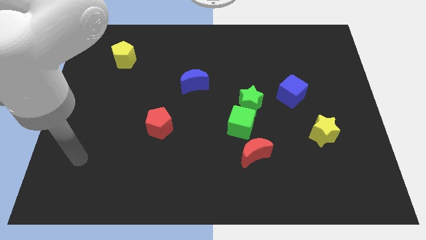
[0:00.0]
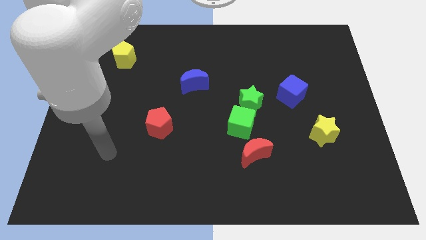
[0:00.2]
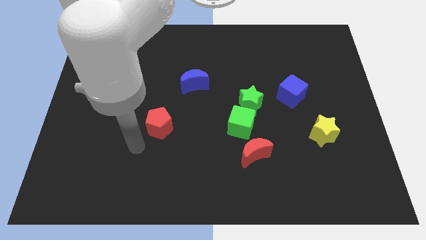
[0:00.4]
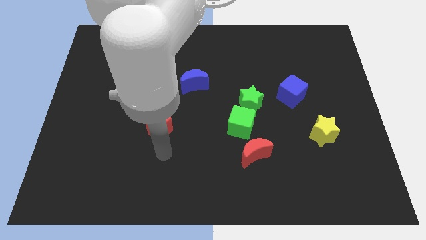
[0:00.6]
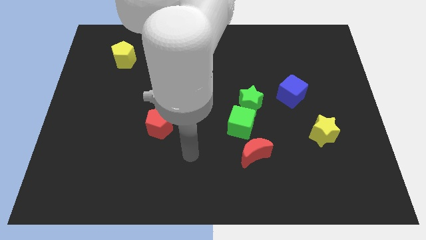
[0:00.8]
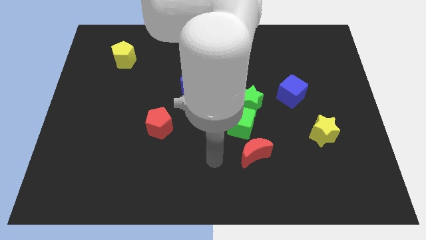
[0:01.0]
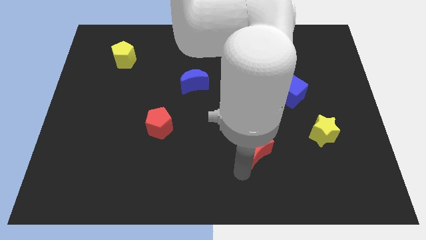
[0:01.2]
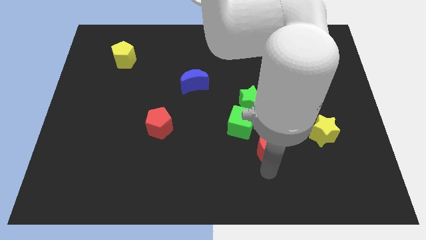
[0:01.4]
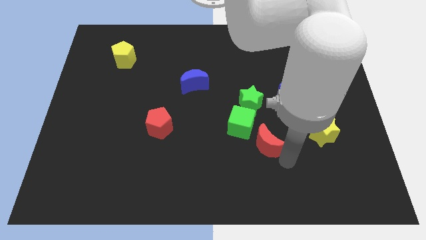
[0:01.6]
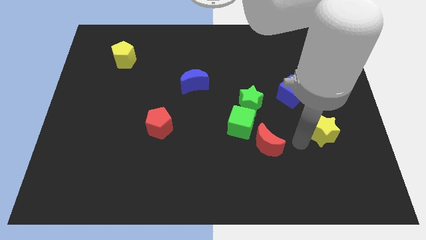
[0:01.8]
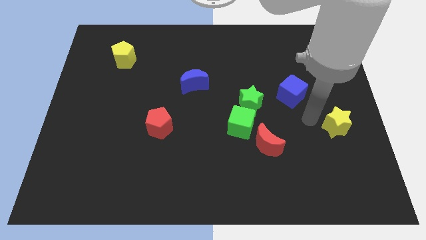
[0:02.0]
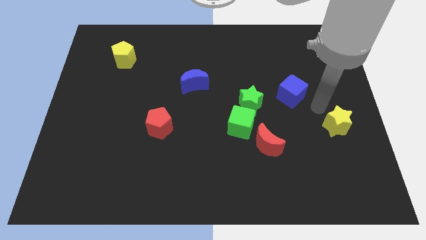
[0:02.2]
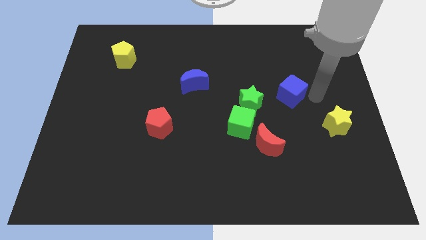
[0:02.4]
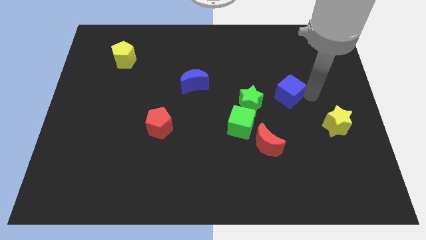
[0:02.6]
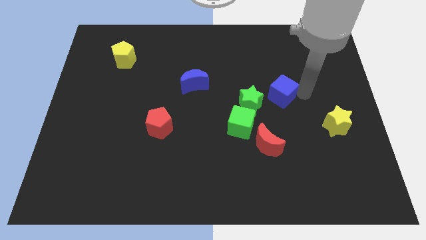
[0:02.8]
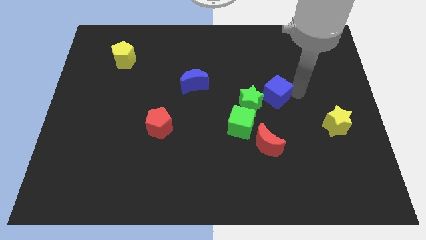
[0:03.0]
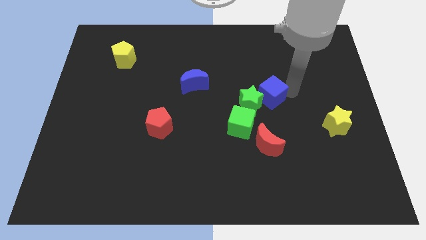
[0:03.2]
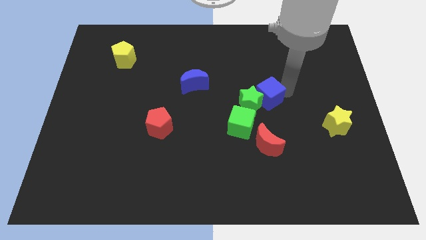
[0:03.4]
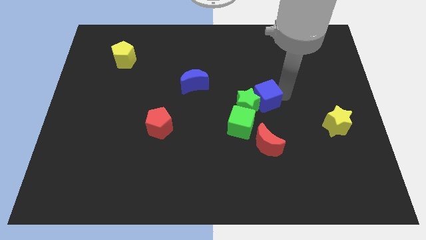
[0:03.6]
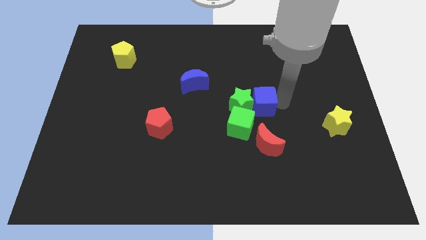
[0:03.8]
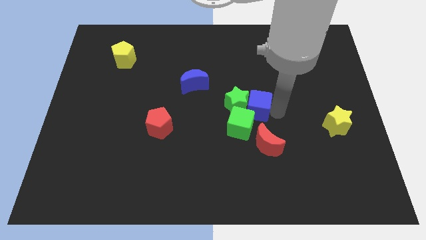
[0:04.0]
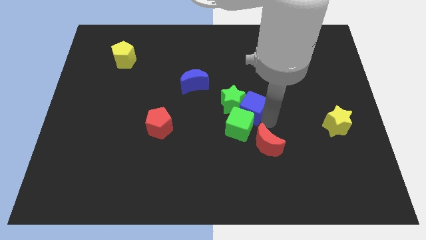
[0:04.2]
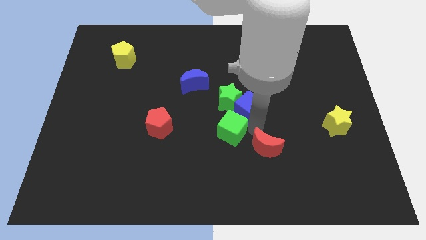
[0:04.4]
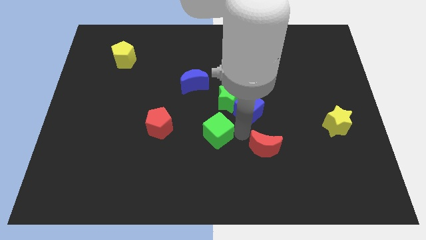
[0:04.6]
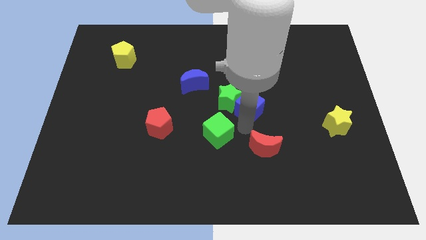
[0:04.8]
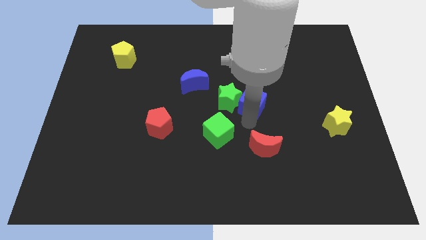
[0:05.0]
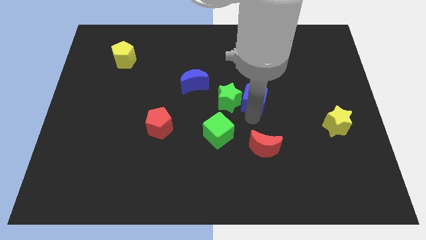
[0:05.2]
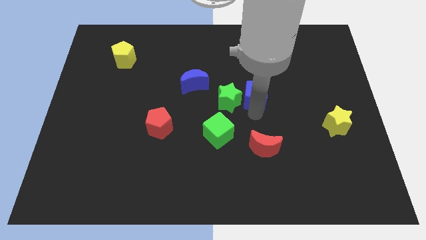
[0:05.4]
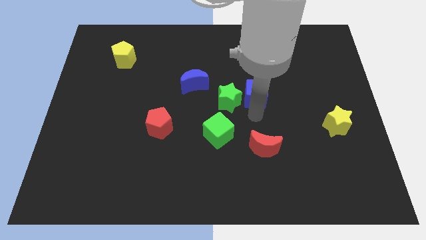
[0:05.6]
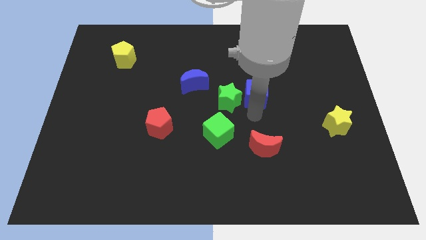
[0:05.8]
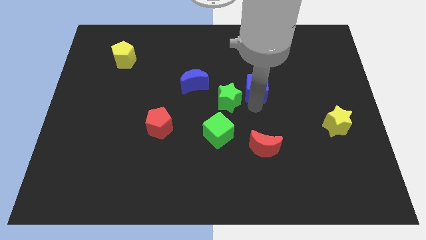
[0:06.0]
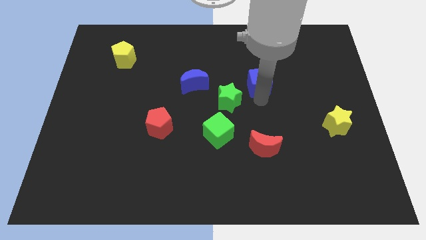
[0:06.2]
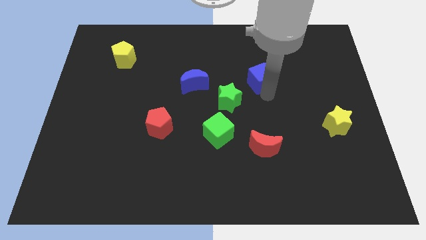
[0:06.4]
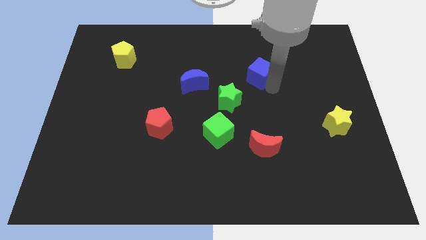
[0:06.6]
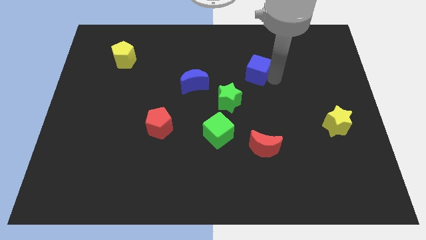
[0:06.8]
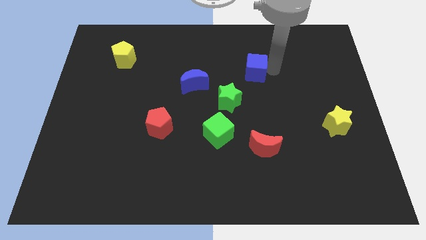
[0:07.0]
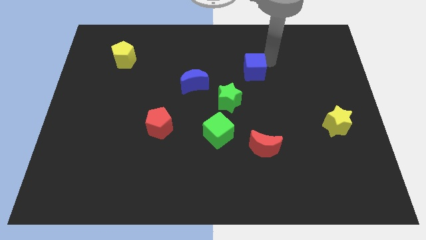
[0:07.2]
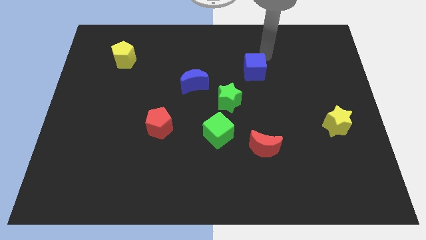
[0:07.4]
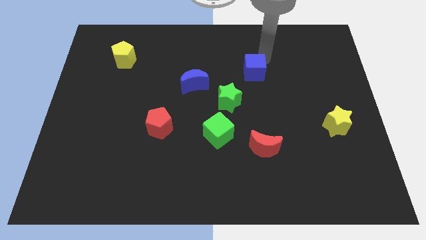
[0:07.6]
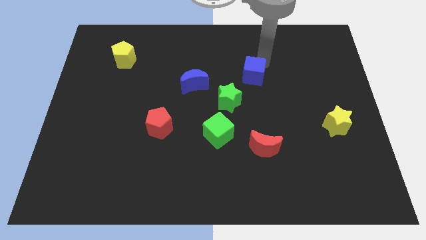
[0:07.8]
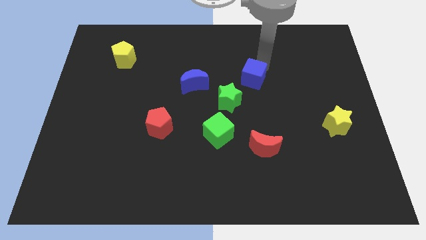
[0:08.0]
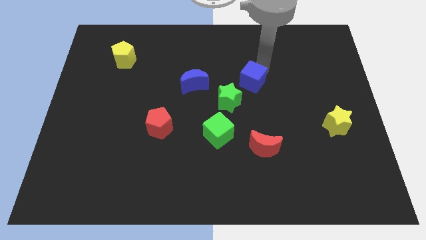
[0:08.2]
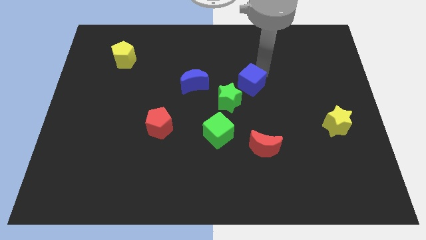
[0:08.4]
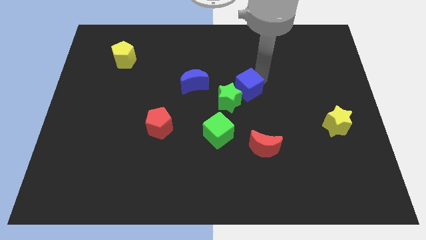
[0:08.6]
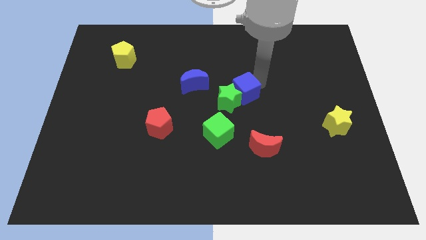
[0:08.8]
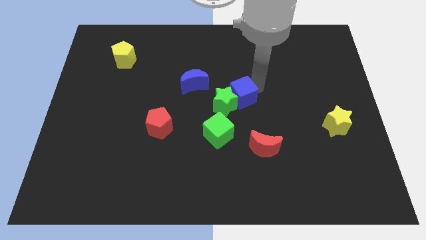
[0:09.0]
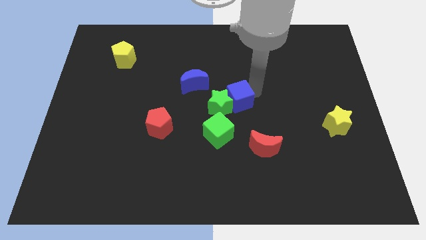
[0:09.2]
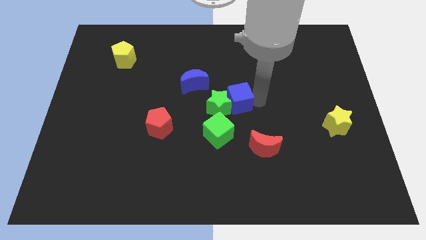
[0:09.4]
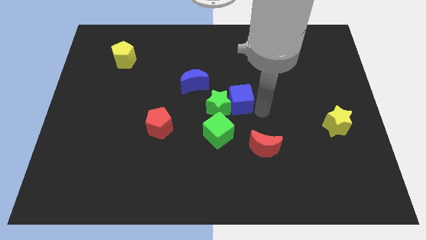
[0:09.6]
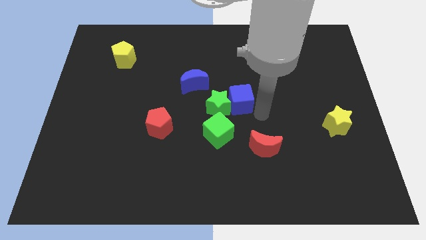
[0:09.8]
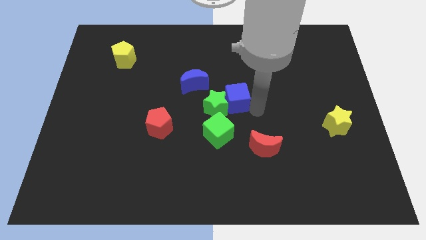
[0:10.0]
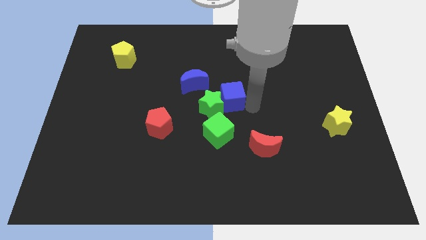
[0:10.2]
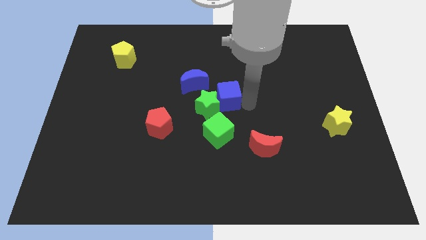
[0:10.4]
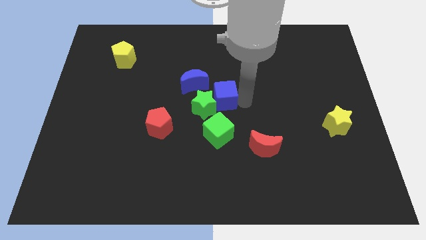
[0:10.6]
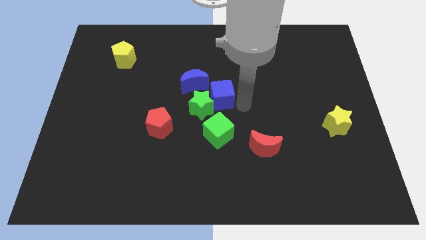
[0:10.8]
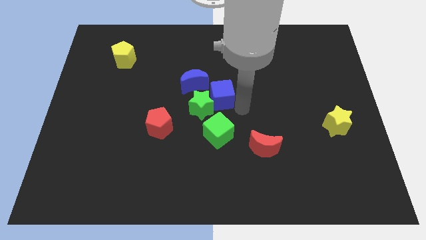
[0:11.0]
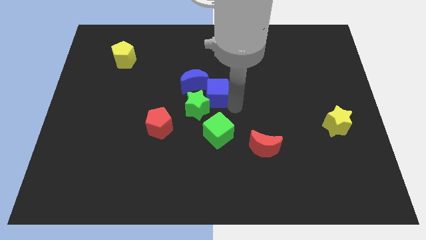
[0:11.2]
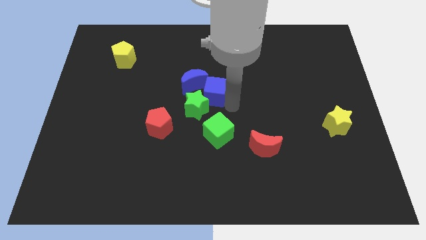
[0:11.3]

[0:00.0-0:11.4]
slide the blue cube close to the blue moon

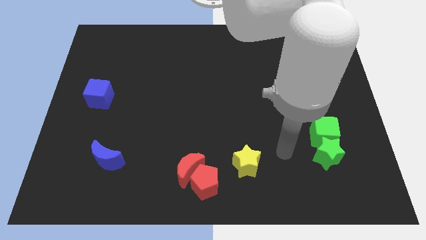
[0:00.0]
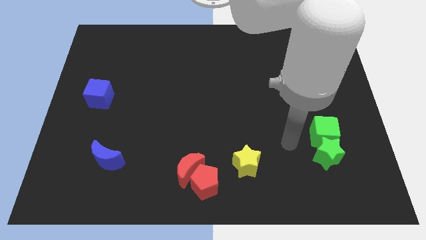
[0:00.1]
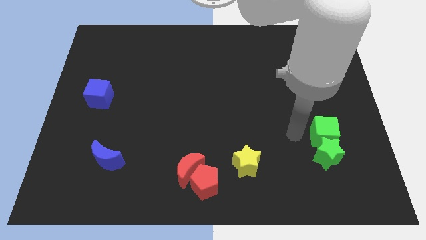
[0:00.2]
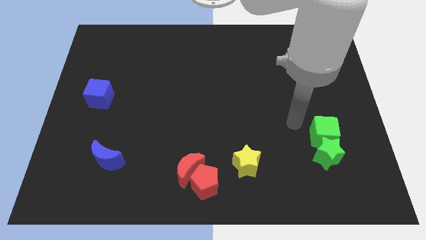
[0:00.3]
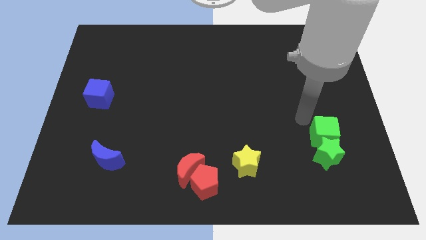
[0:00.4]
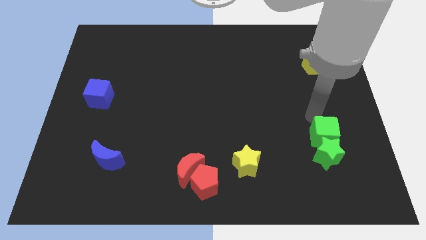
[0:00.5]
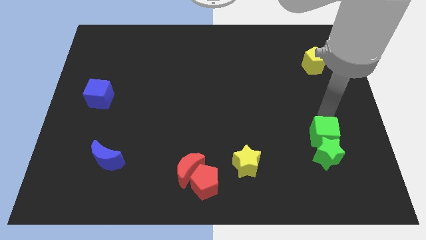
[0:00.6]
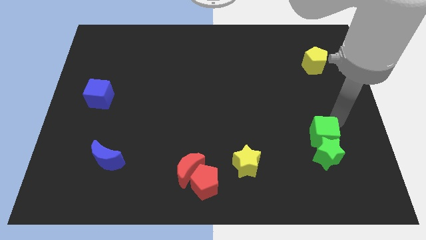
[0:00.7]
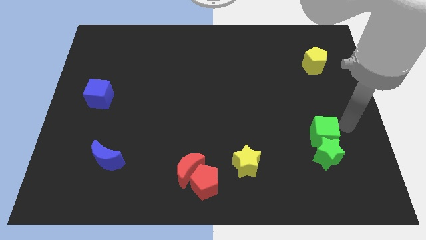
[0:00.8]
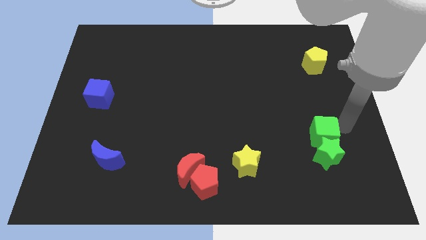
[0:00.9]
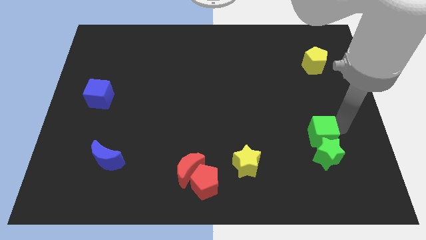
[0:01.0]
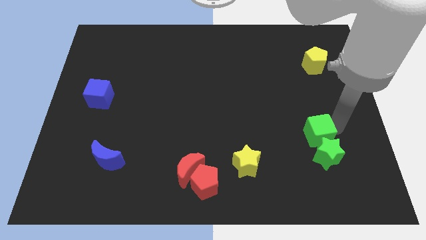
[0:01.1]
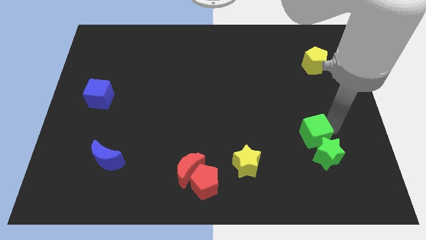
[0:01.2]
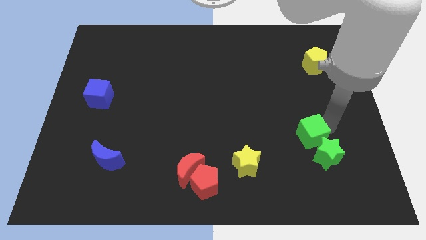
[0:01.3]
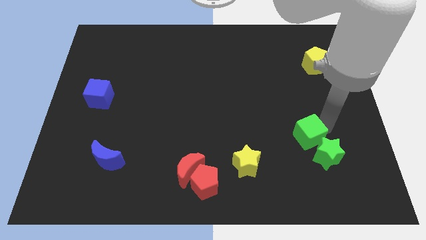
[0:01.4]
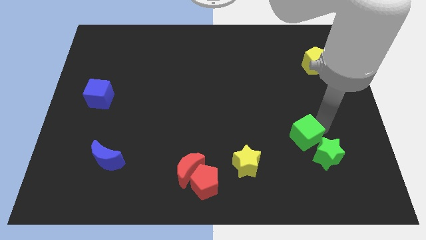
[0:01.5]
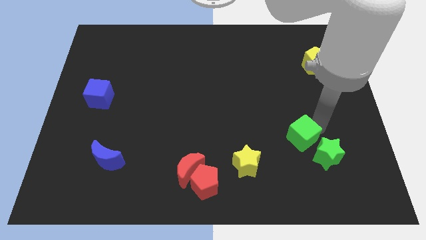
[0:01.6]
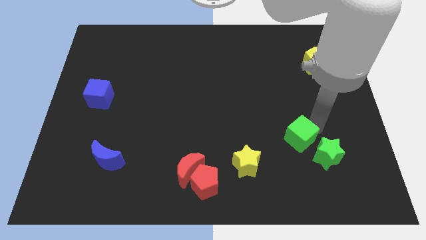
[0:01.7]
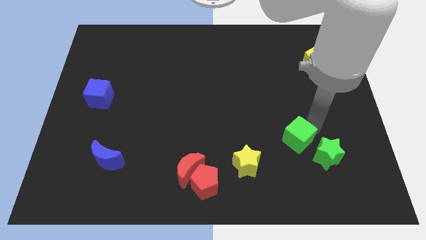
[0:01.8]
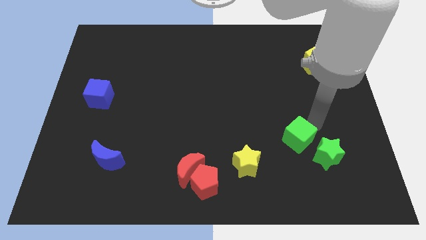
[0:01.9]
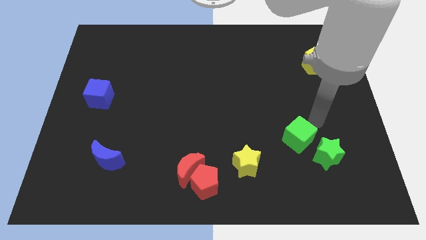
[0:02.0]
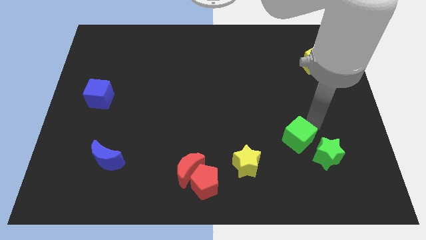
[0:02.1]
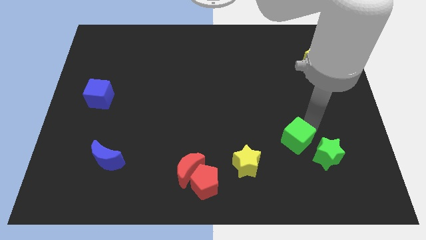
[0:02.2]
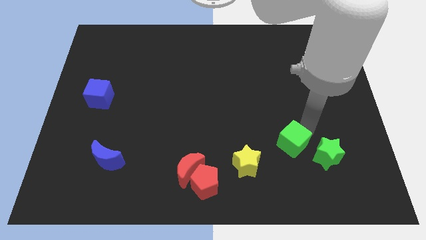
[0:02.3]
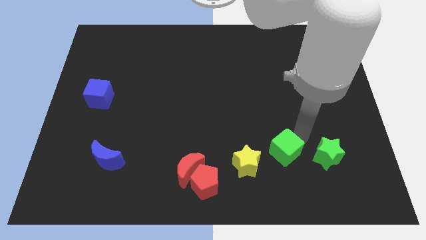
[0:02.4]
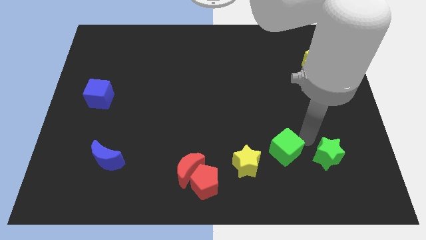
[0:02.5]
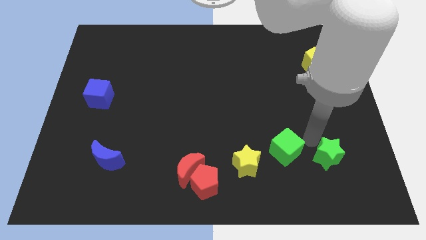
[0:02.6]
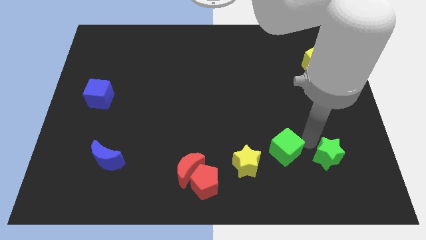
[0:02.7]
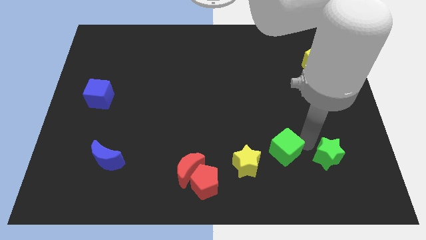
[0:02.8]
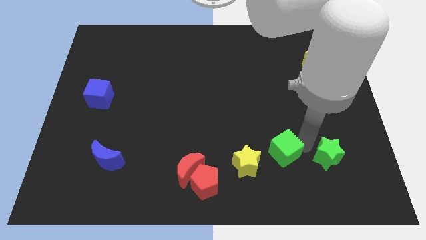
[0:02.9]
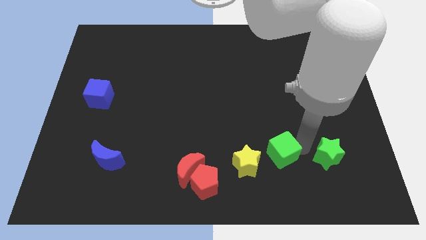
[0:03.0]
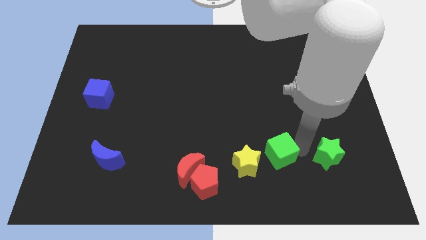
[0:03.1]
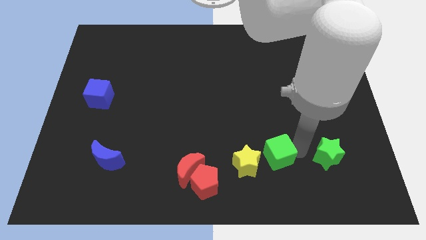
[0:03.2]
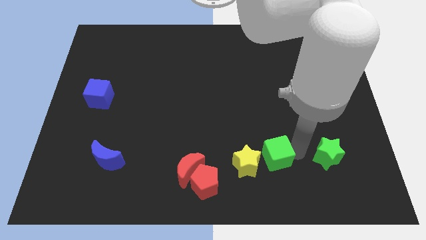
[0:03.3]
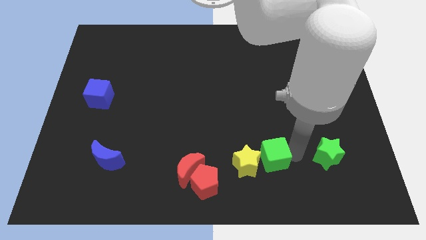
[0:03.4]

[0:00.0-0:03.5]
put the green cube towards the yellow star
